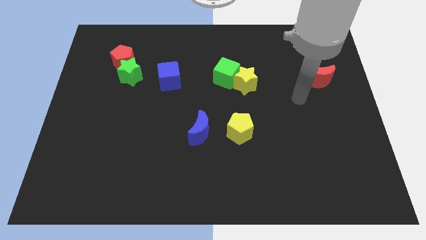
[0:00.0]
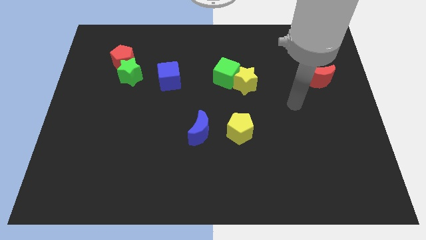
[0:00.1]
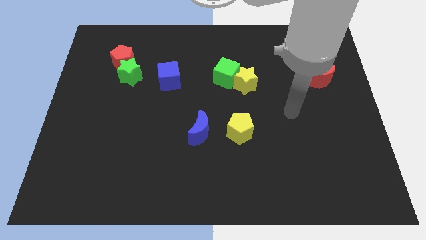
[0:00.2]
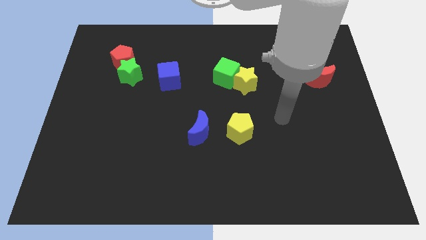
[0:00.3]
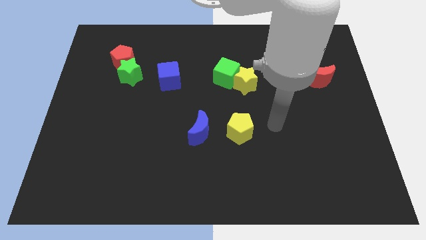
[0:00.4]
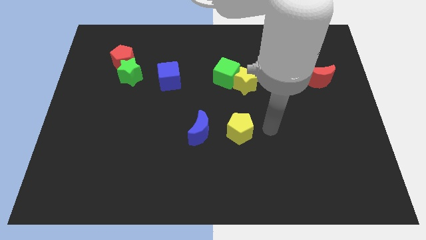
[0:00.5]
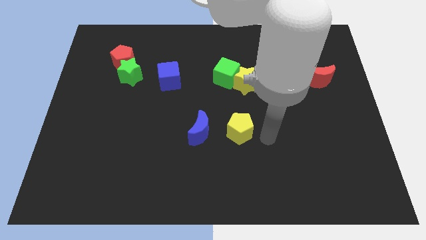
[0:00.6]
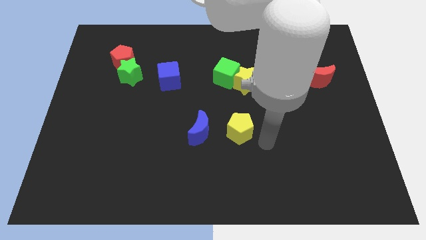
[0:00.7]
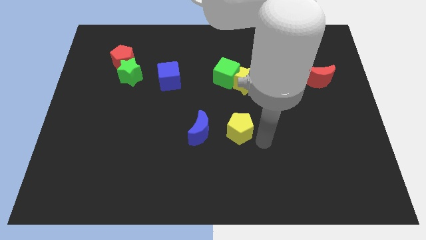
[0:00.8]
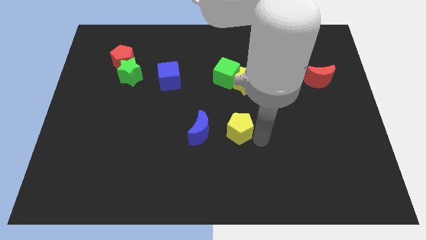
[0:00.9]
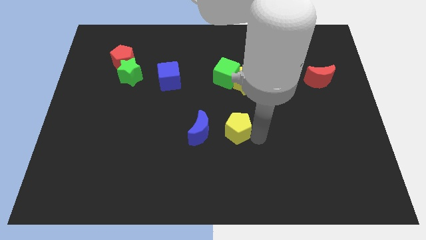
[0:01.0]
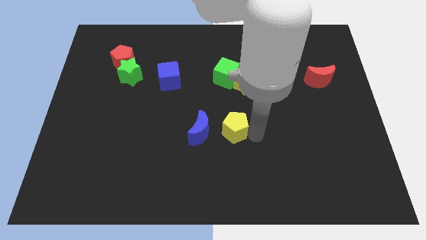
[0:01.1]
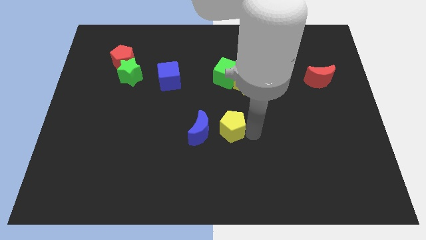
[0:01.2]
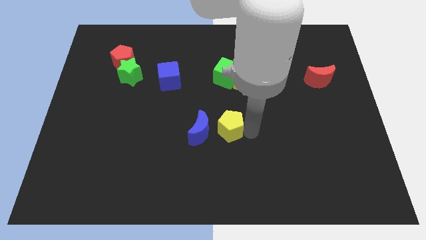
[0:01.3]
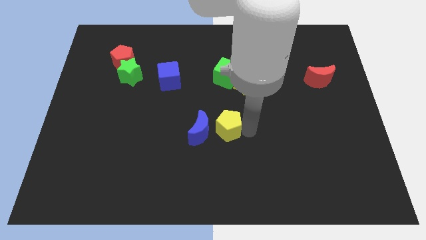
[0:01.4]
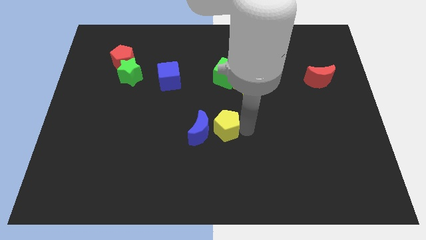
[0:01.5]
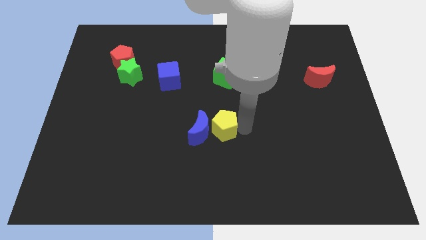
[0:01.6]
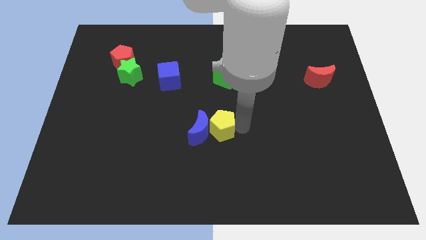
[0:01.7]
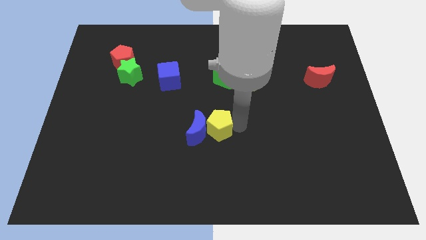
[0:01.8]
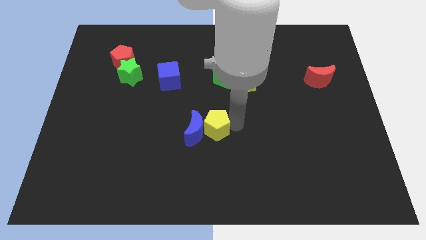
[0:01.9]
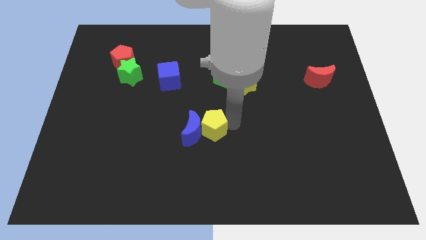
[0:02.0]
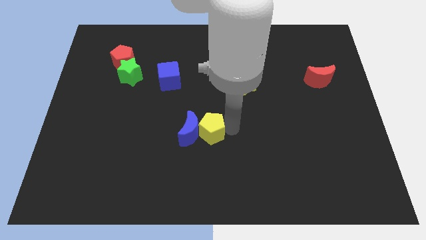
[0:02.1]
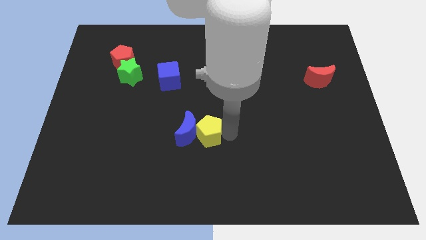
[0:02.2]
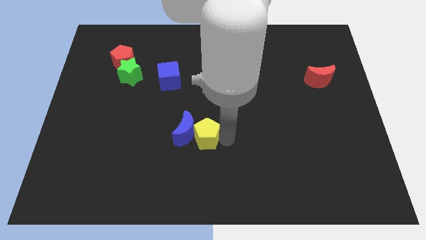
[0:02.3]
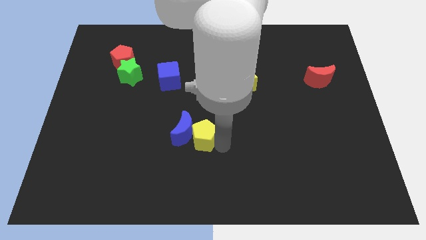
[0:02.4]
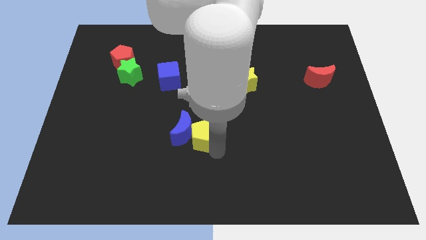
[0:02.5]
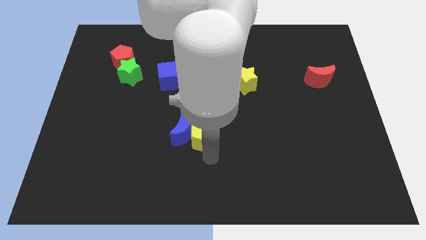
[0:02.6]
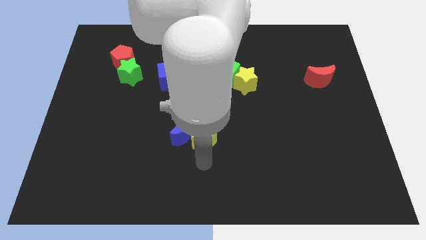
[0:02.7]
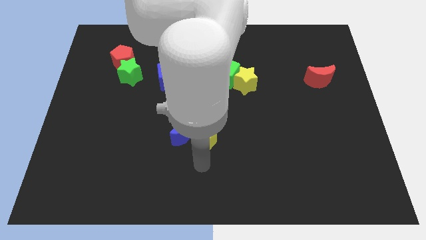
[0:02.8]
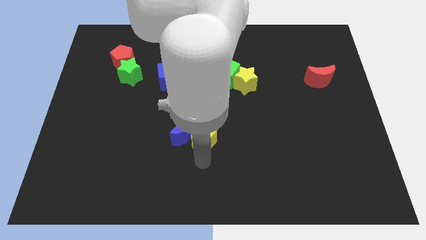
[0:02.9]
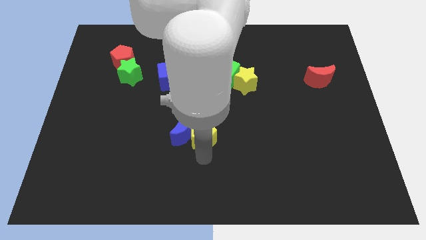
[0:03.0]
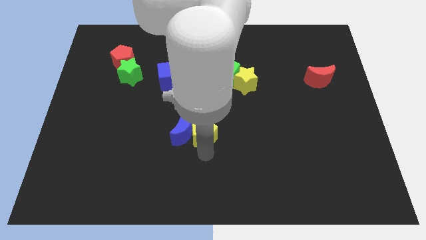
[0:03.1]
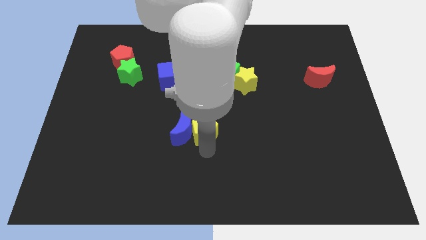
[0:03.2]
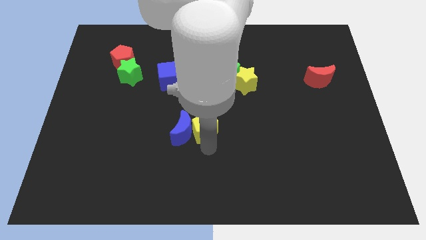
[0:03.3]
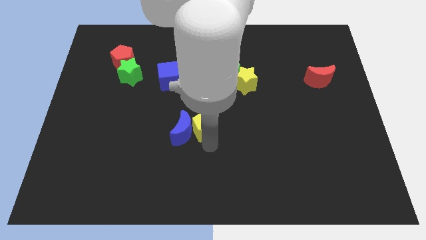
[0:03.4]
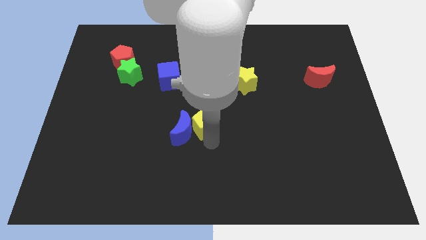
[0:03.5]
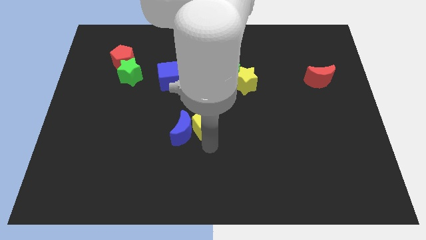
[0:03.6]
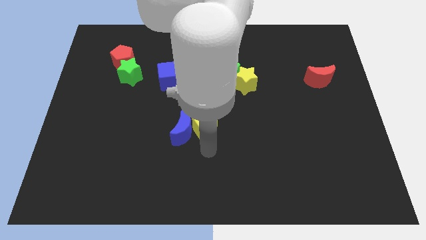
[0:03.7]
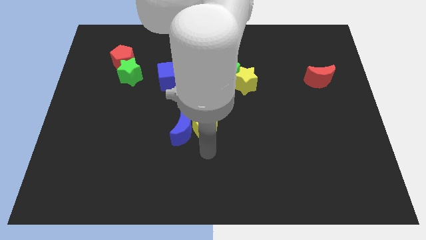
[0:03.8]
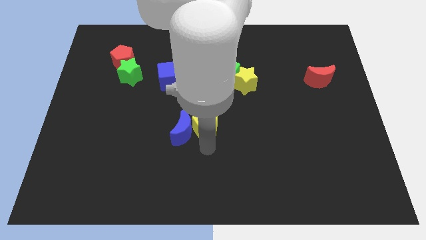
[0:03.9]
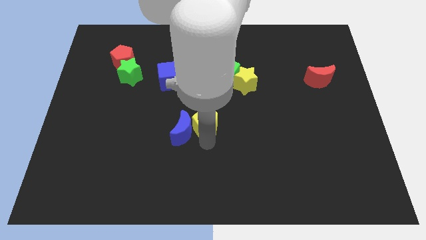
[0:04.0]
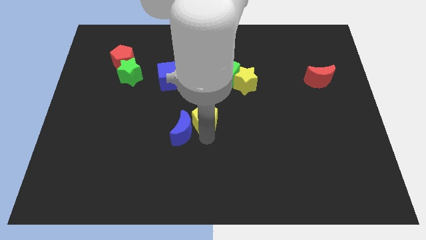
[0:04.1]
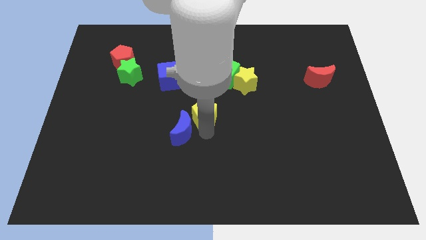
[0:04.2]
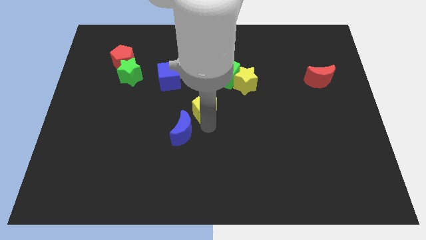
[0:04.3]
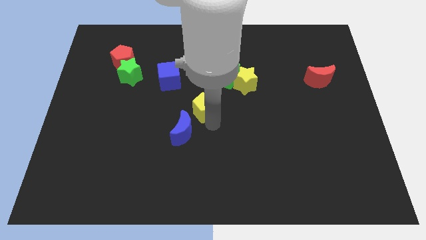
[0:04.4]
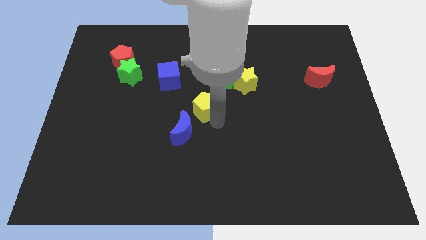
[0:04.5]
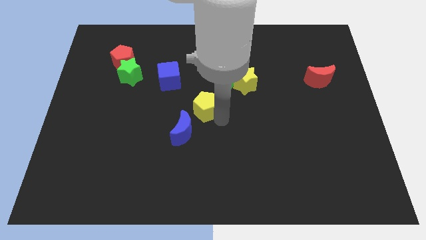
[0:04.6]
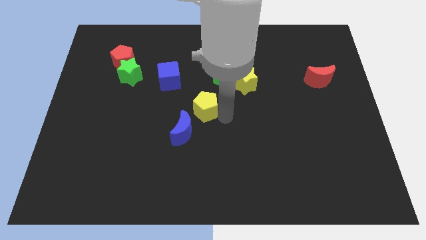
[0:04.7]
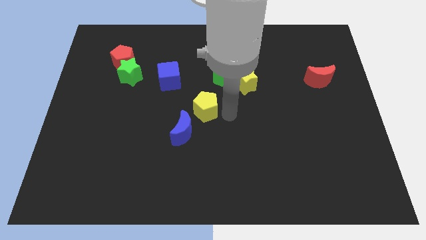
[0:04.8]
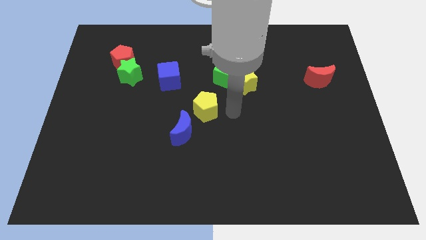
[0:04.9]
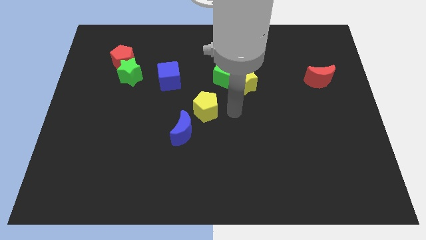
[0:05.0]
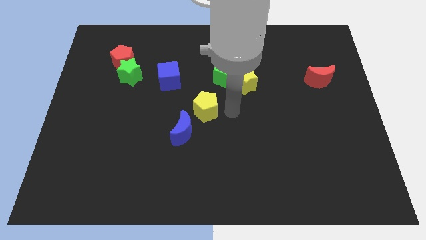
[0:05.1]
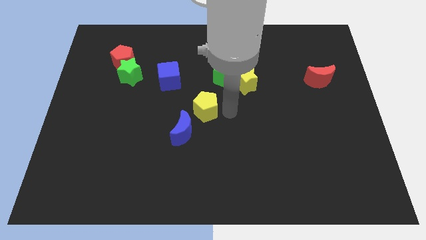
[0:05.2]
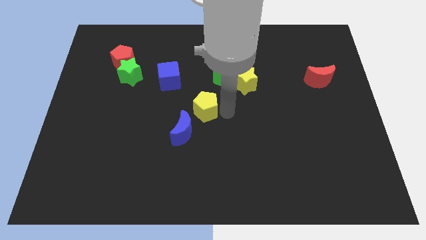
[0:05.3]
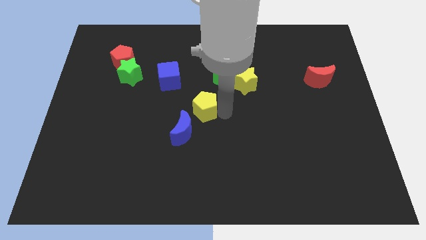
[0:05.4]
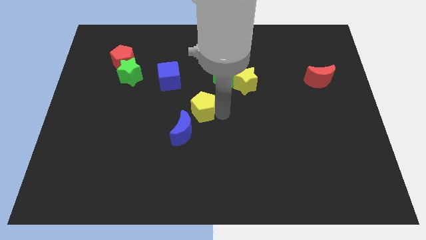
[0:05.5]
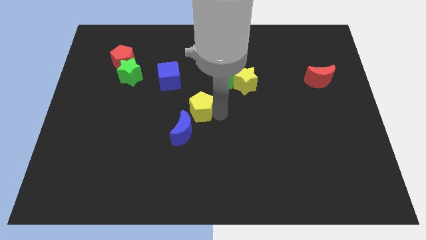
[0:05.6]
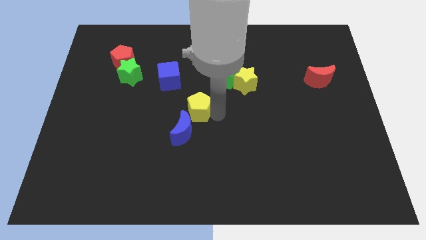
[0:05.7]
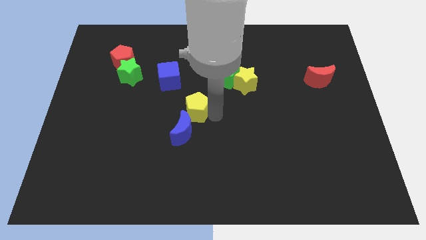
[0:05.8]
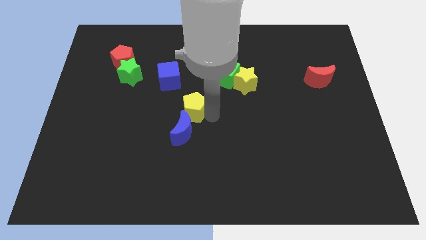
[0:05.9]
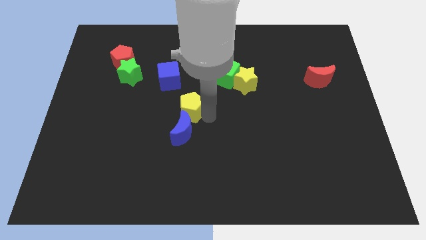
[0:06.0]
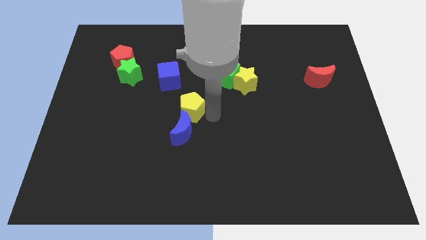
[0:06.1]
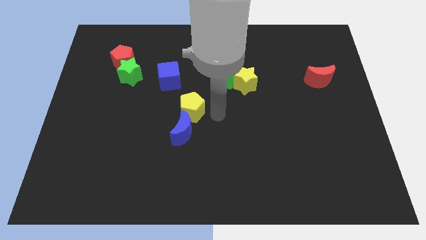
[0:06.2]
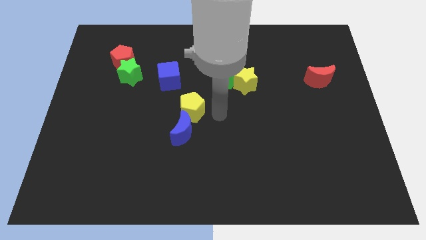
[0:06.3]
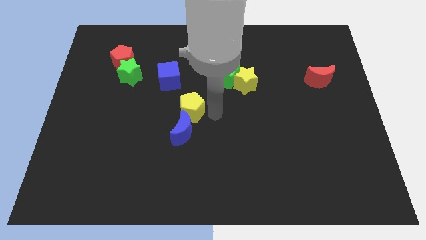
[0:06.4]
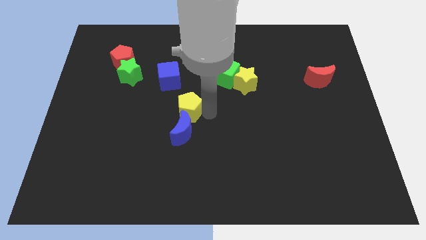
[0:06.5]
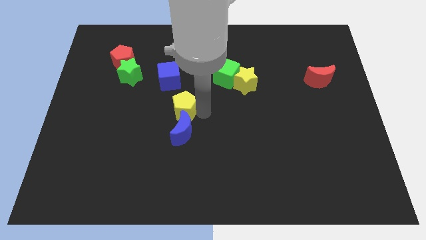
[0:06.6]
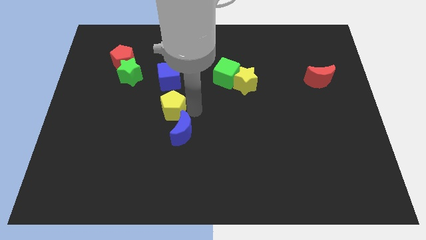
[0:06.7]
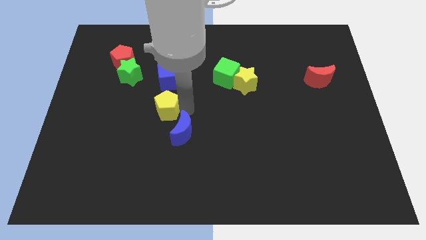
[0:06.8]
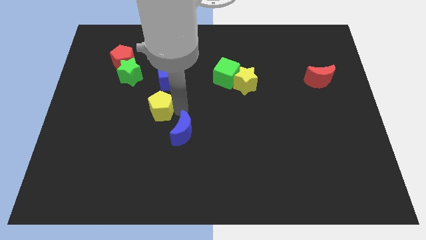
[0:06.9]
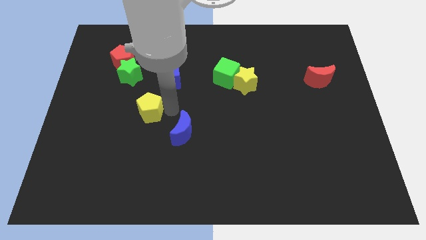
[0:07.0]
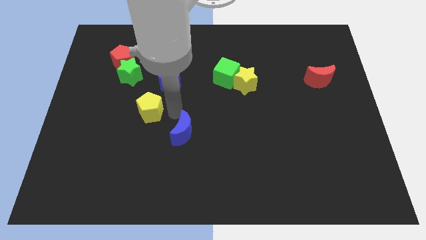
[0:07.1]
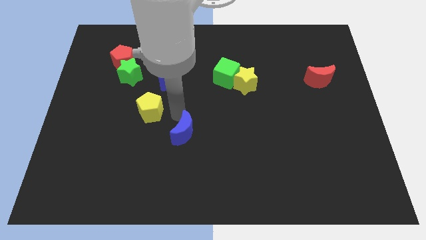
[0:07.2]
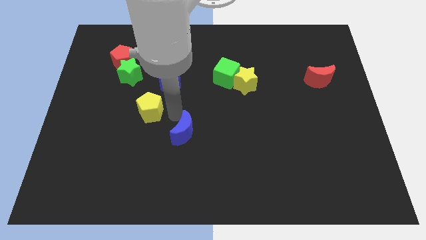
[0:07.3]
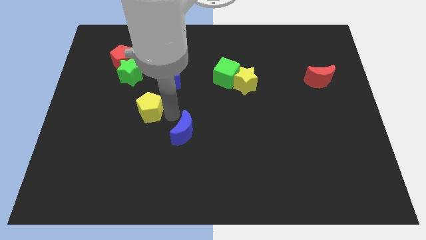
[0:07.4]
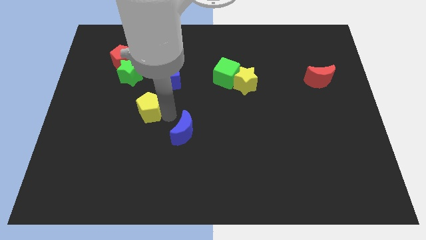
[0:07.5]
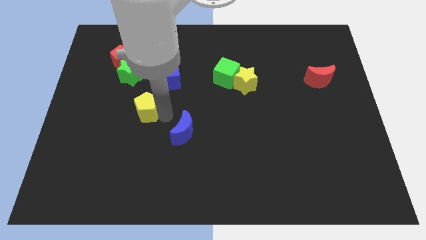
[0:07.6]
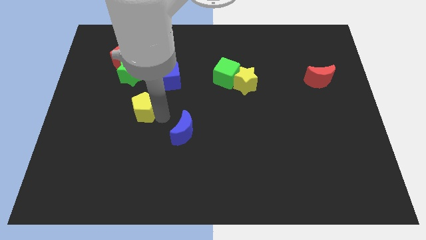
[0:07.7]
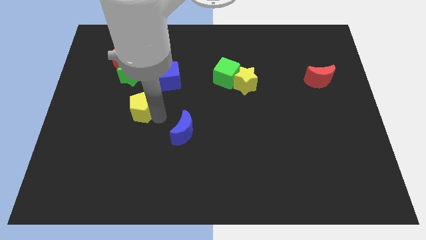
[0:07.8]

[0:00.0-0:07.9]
push the yellow pentagon below the green star

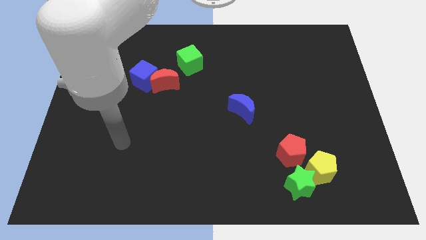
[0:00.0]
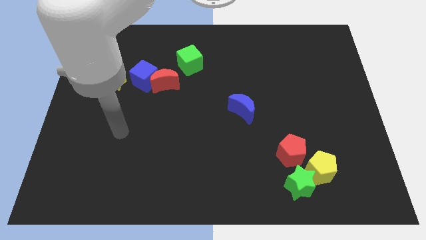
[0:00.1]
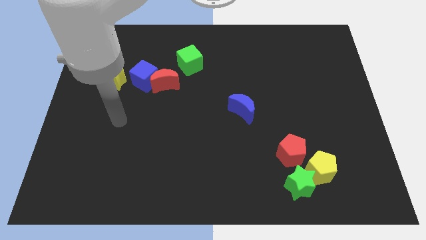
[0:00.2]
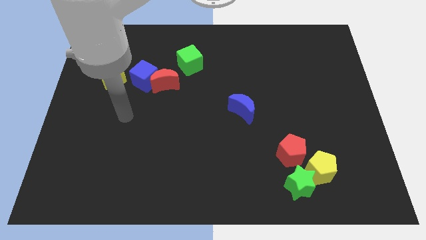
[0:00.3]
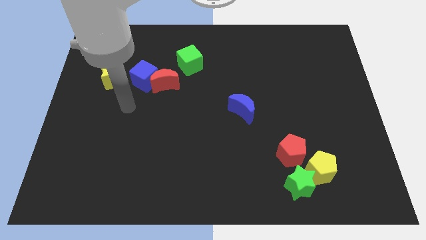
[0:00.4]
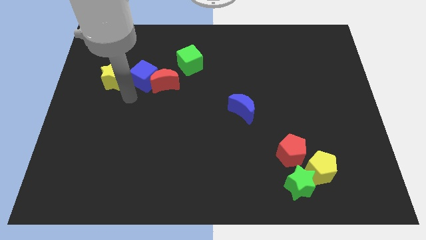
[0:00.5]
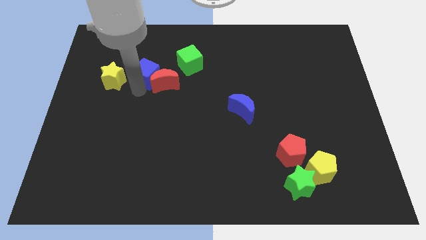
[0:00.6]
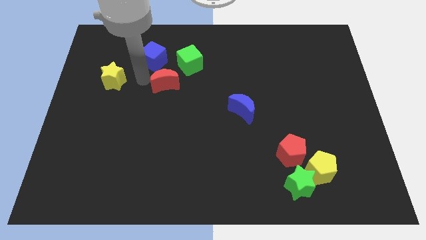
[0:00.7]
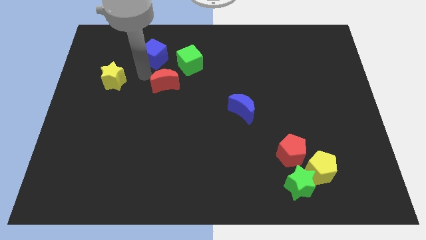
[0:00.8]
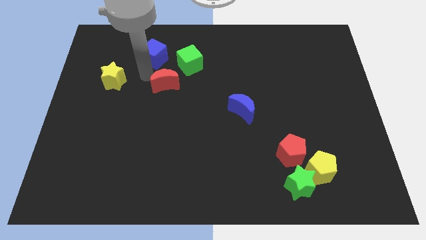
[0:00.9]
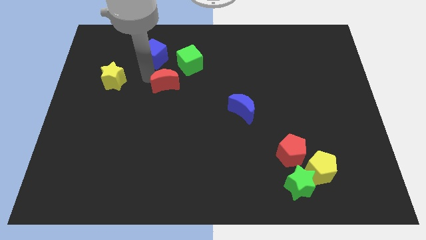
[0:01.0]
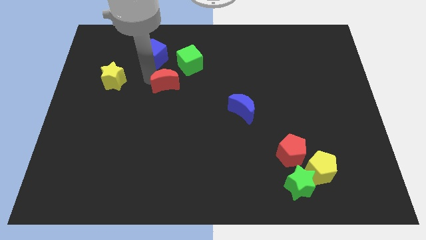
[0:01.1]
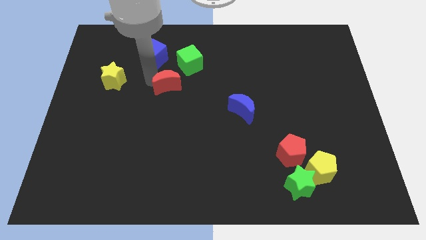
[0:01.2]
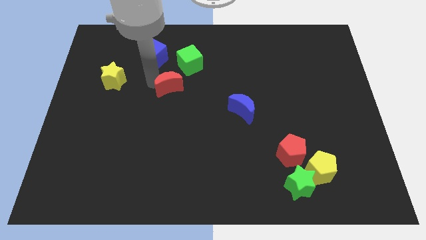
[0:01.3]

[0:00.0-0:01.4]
slide the red moon below the green cube
